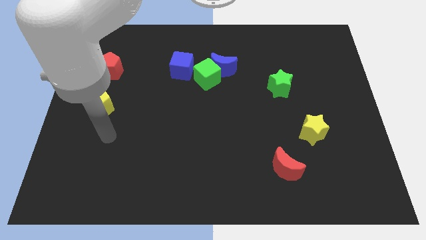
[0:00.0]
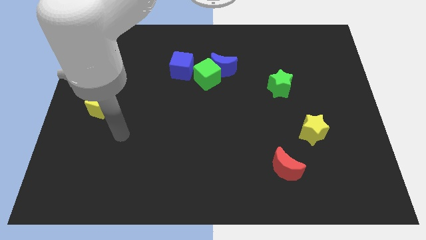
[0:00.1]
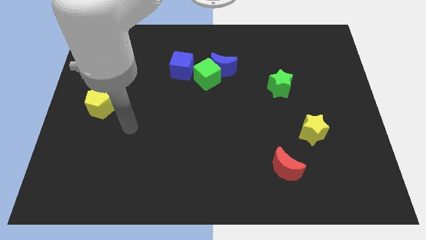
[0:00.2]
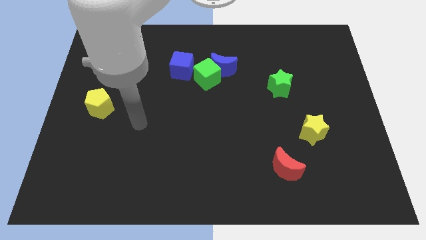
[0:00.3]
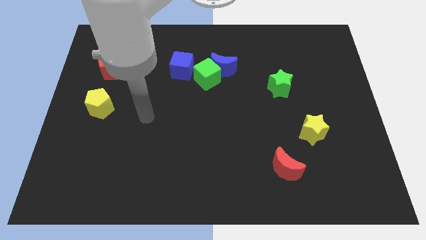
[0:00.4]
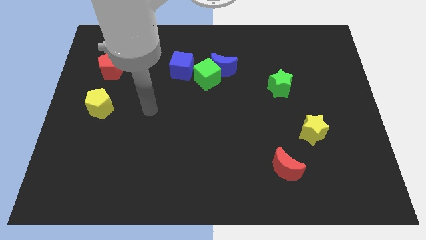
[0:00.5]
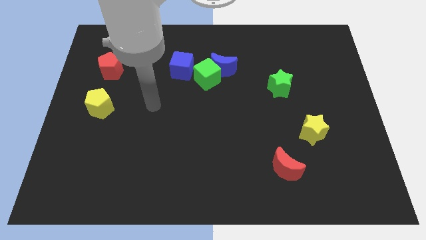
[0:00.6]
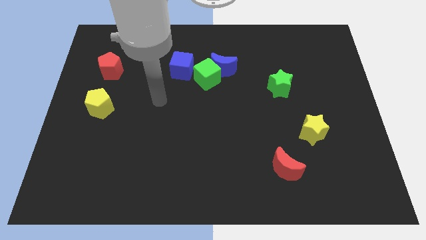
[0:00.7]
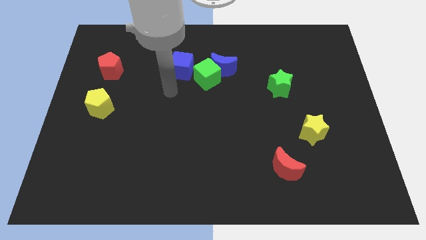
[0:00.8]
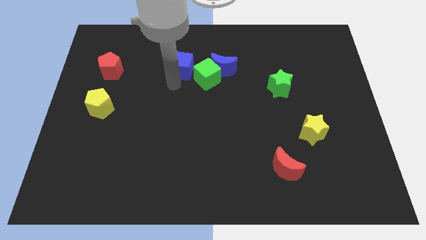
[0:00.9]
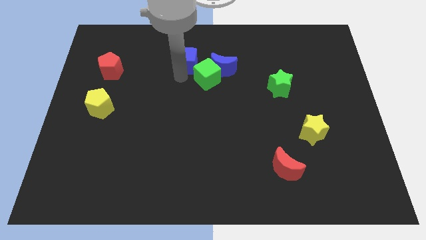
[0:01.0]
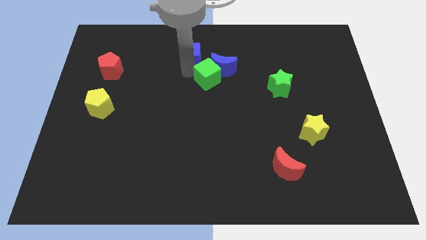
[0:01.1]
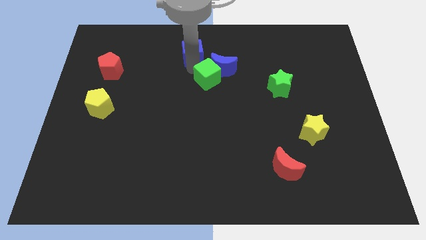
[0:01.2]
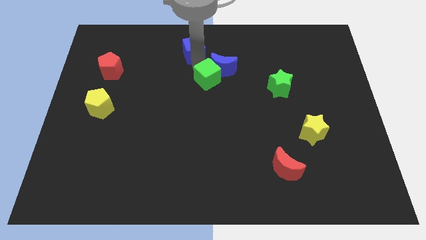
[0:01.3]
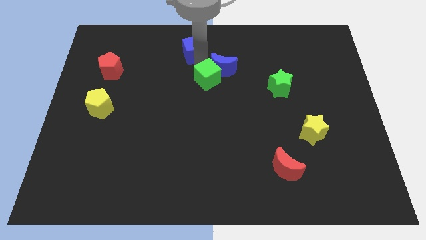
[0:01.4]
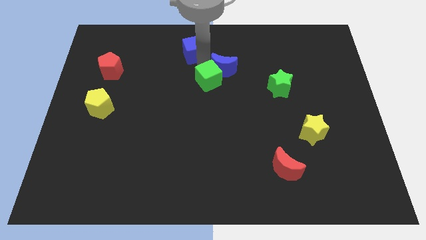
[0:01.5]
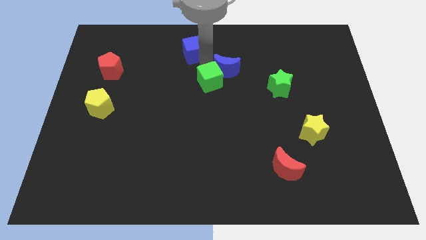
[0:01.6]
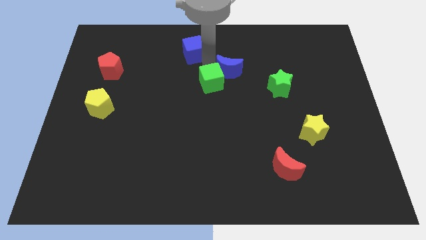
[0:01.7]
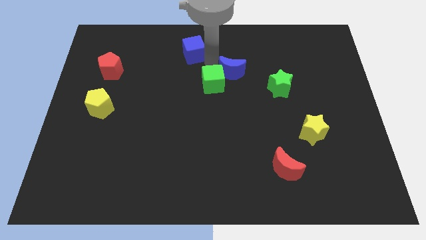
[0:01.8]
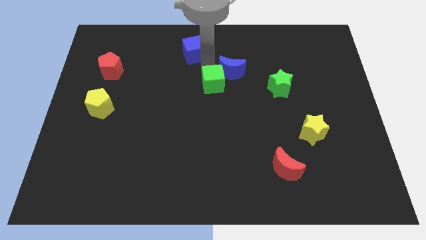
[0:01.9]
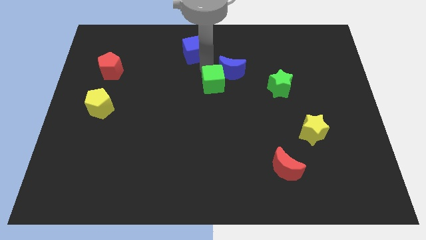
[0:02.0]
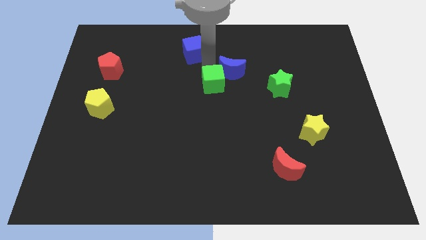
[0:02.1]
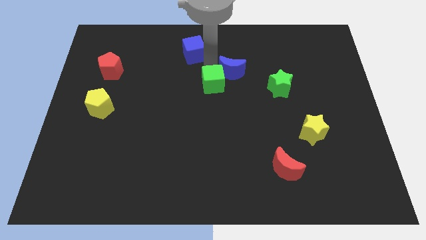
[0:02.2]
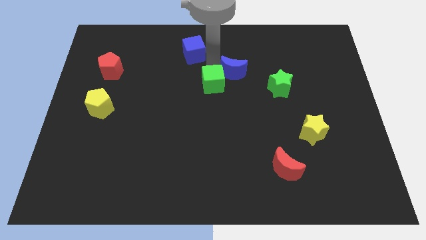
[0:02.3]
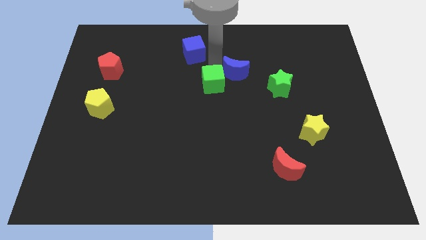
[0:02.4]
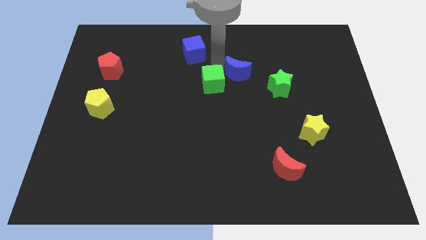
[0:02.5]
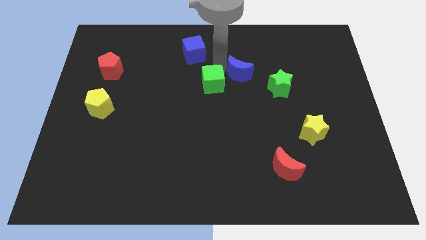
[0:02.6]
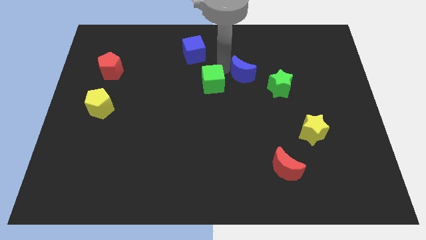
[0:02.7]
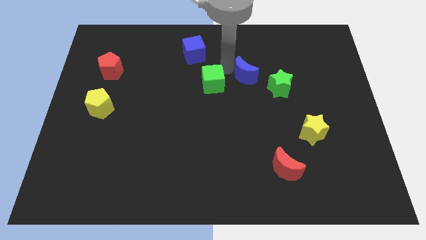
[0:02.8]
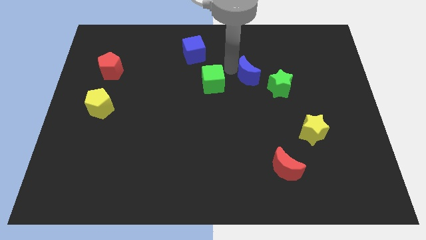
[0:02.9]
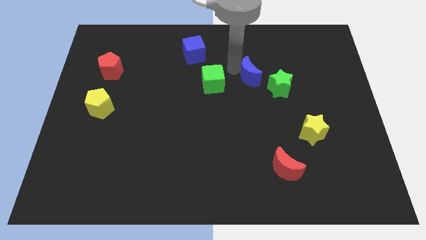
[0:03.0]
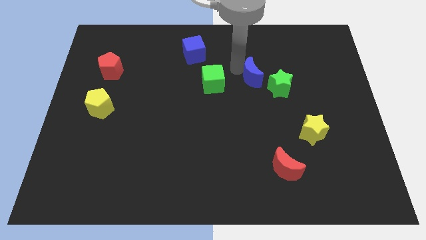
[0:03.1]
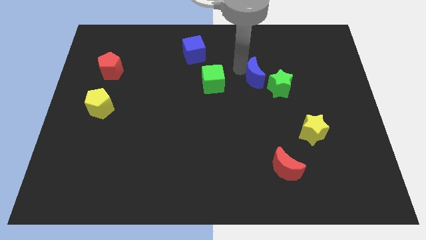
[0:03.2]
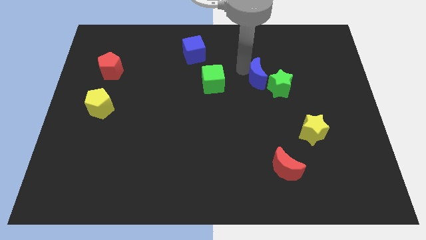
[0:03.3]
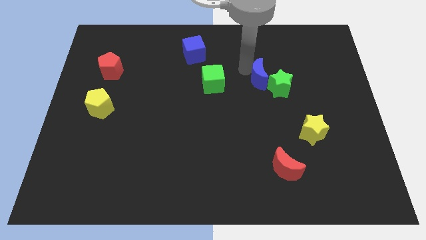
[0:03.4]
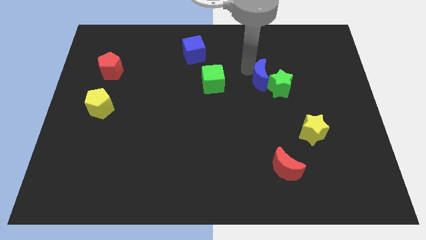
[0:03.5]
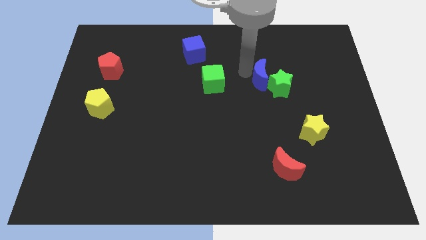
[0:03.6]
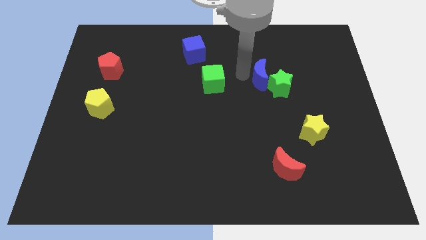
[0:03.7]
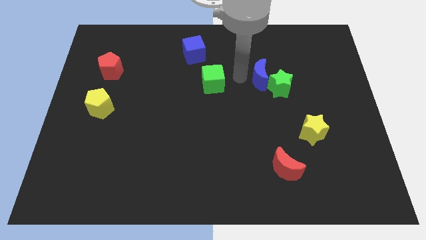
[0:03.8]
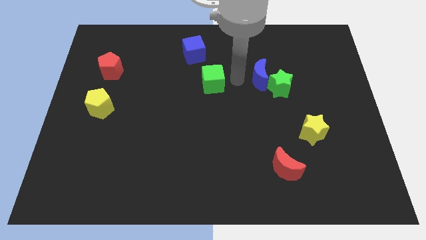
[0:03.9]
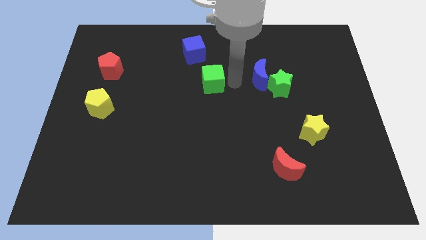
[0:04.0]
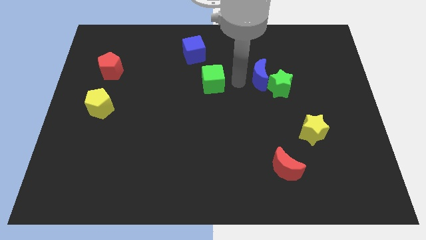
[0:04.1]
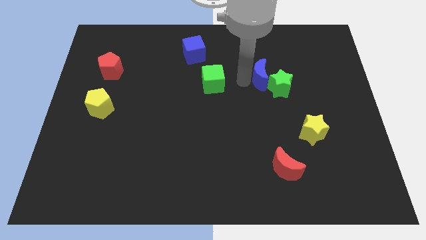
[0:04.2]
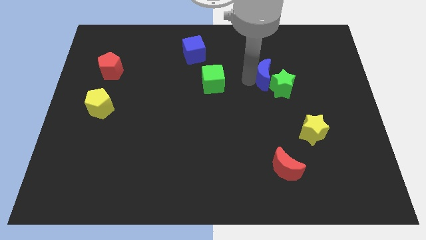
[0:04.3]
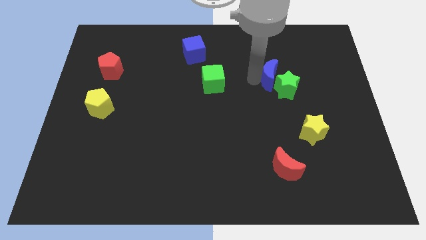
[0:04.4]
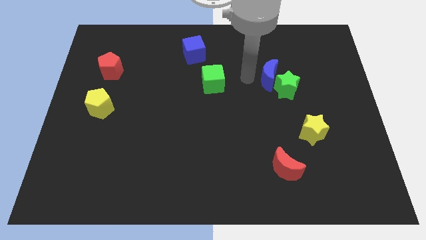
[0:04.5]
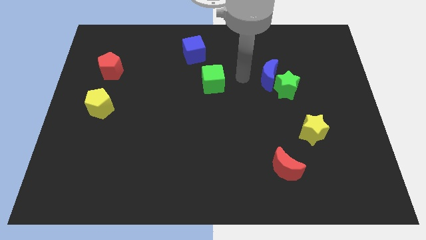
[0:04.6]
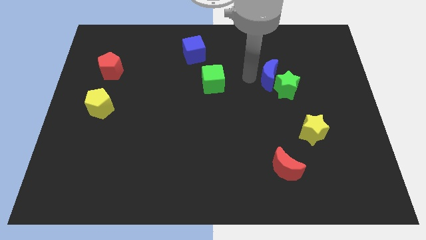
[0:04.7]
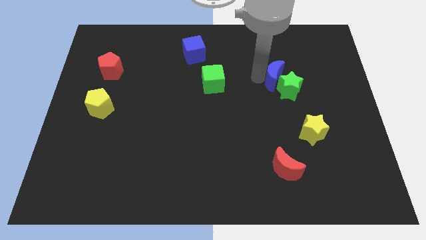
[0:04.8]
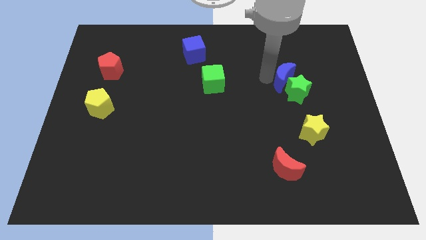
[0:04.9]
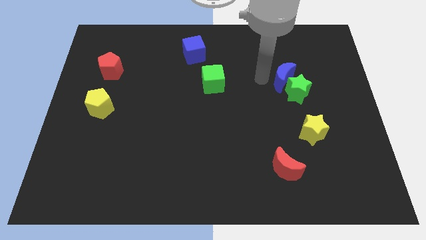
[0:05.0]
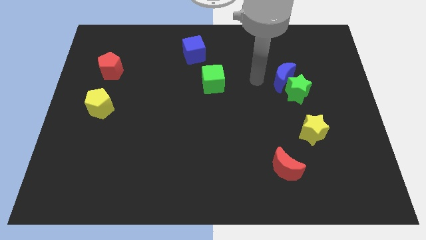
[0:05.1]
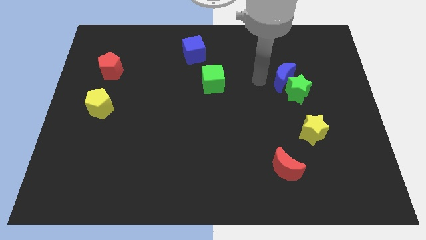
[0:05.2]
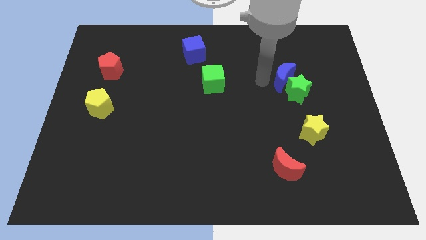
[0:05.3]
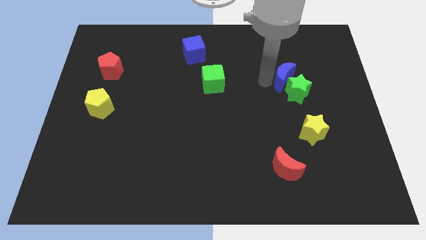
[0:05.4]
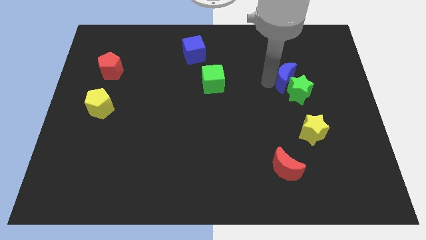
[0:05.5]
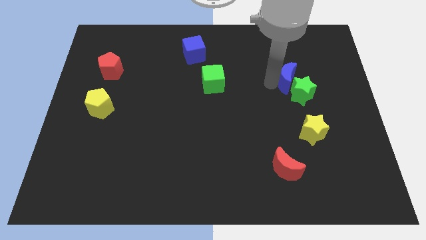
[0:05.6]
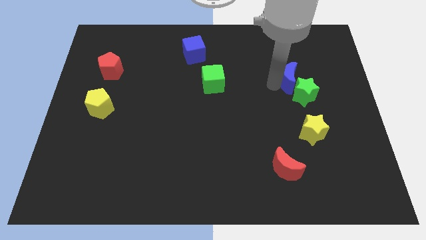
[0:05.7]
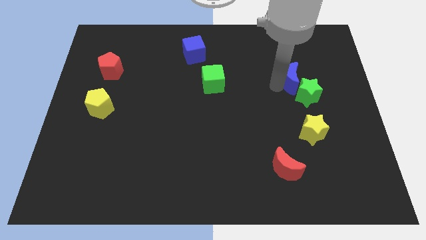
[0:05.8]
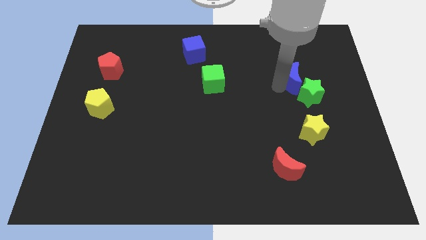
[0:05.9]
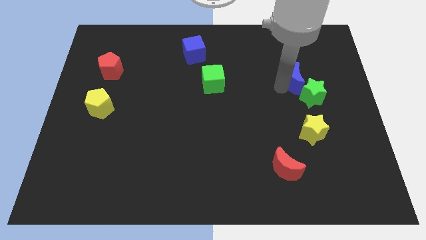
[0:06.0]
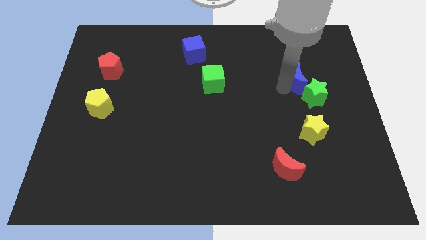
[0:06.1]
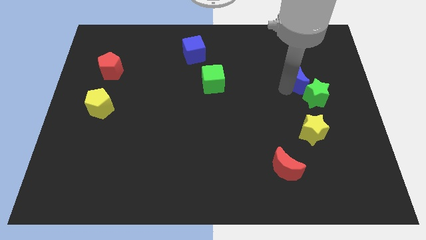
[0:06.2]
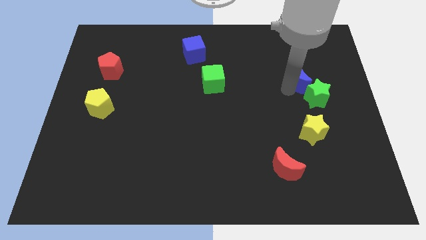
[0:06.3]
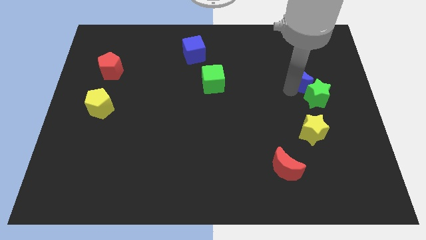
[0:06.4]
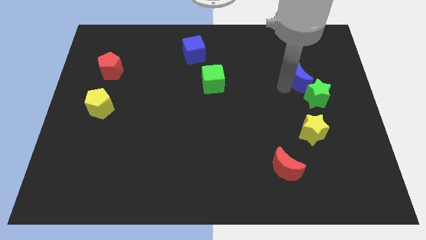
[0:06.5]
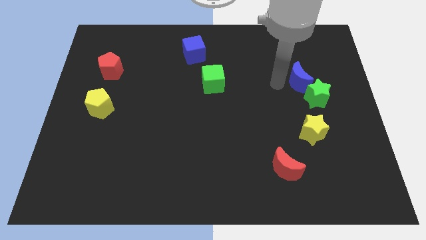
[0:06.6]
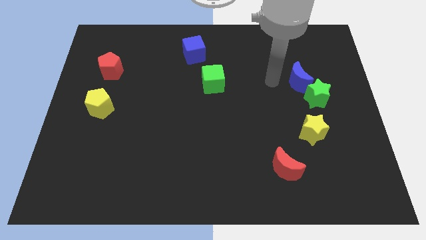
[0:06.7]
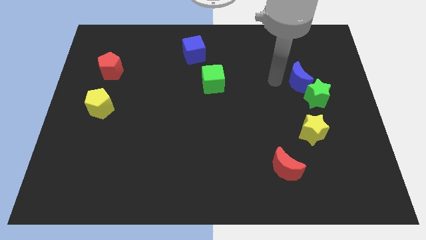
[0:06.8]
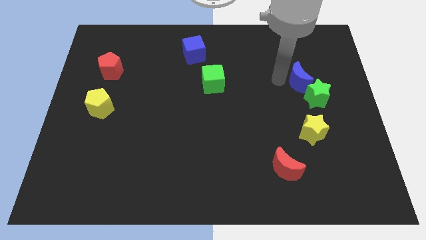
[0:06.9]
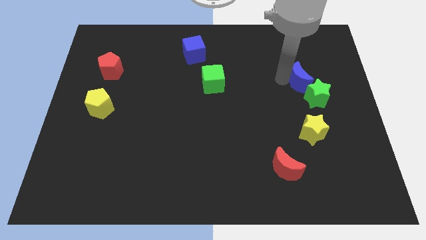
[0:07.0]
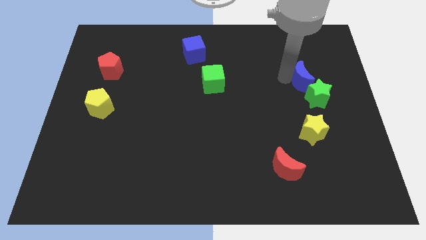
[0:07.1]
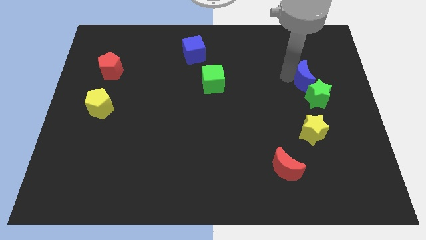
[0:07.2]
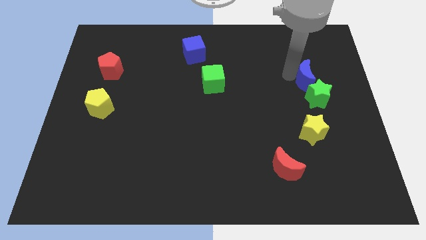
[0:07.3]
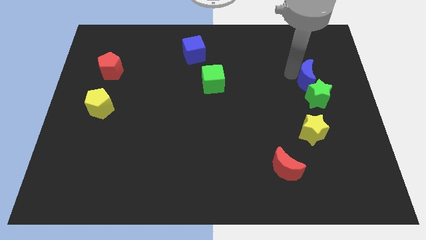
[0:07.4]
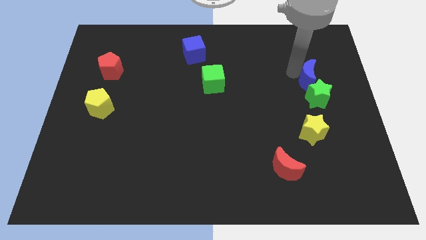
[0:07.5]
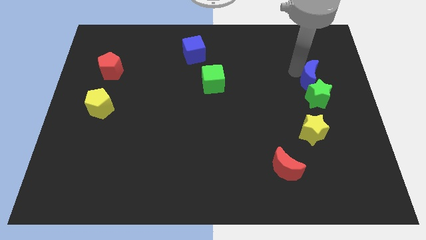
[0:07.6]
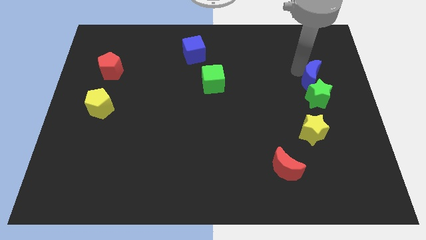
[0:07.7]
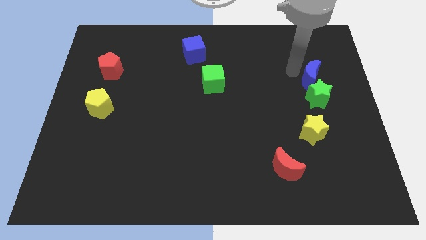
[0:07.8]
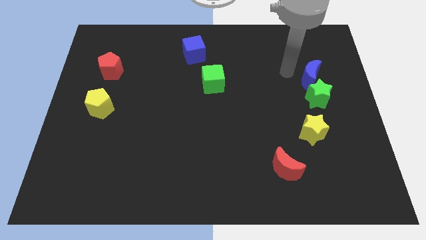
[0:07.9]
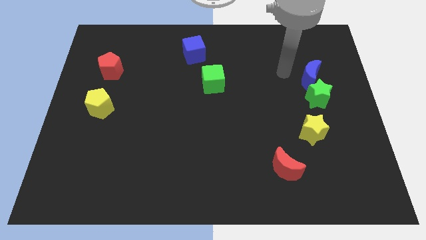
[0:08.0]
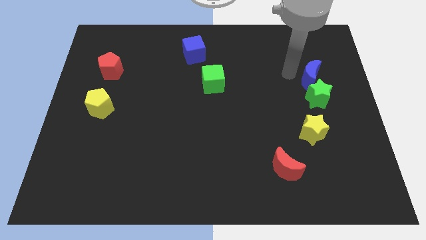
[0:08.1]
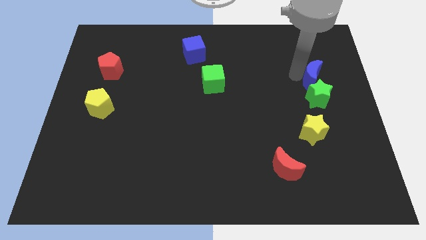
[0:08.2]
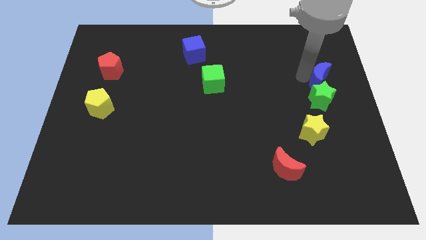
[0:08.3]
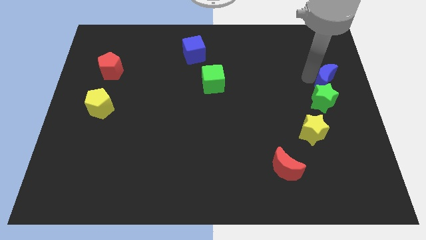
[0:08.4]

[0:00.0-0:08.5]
put the blue moon to the right side
